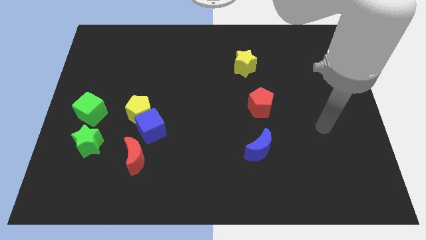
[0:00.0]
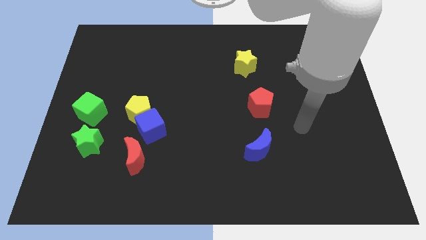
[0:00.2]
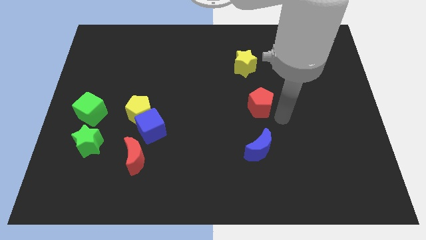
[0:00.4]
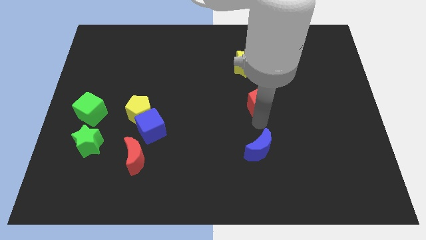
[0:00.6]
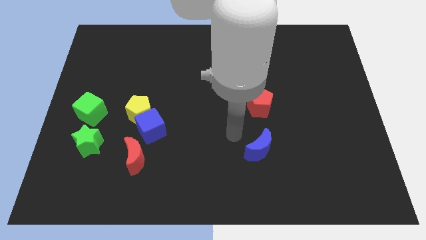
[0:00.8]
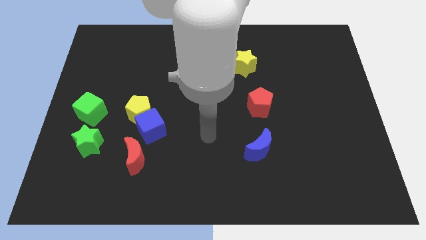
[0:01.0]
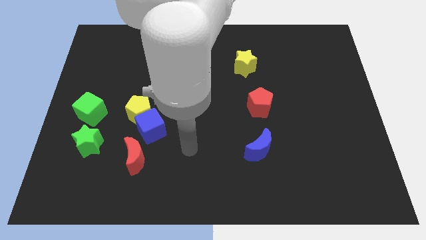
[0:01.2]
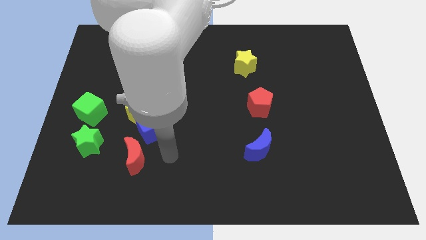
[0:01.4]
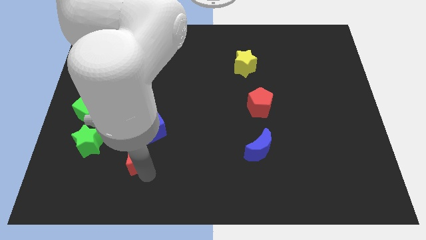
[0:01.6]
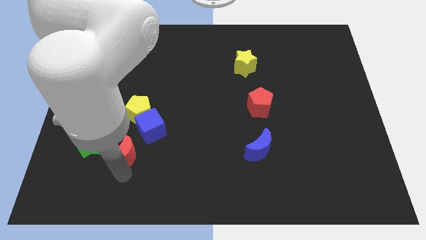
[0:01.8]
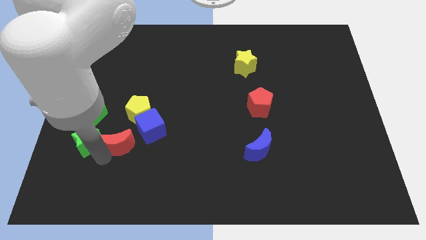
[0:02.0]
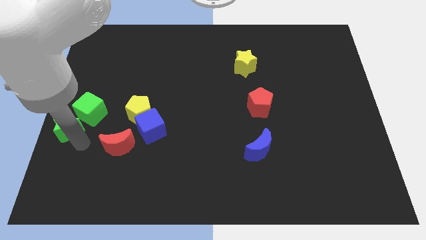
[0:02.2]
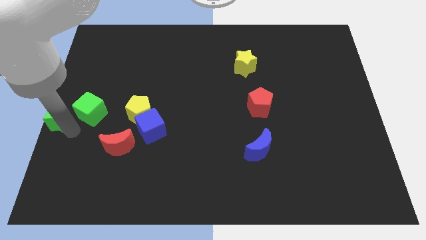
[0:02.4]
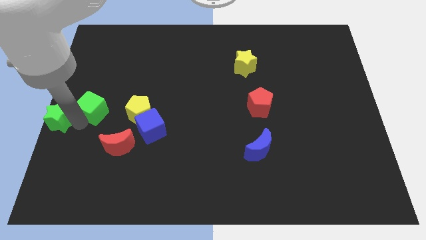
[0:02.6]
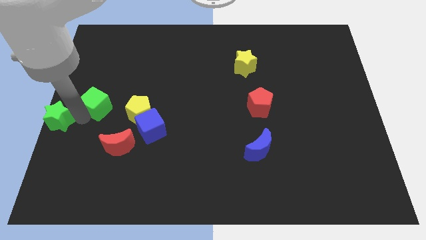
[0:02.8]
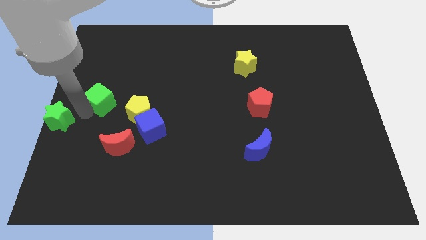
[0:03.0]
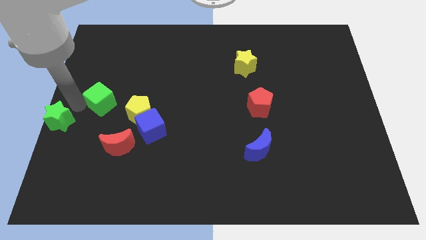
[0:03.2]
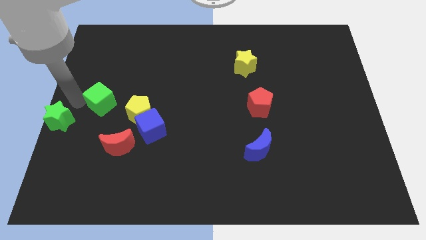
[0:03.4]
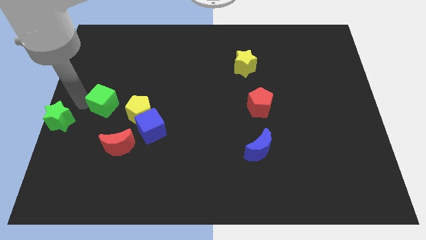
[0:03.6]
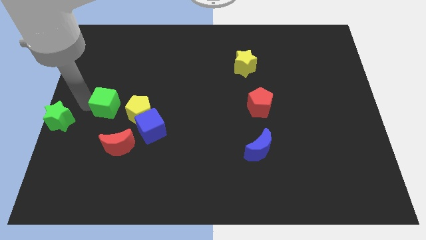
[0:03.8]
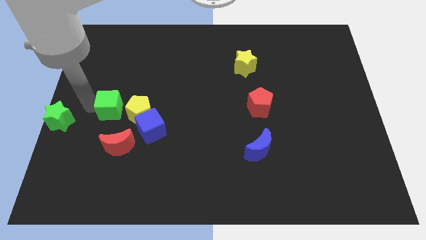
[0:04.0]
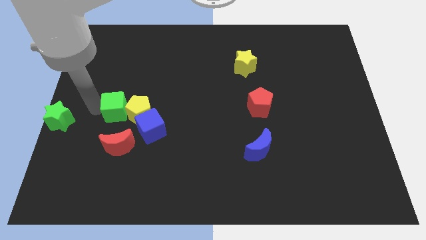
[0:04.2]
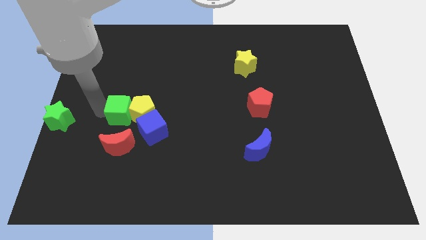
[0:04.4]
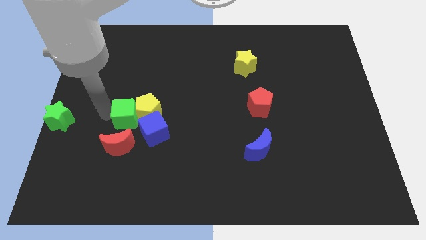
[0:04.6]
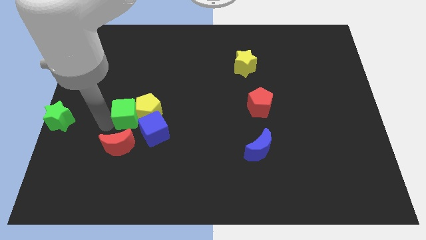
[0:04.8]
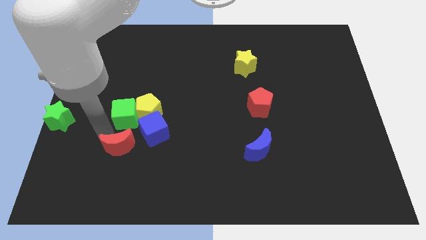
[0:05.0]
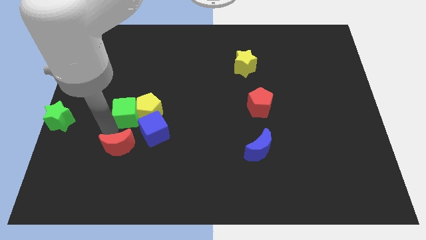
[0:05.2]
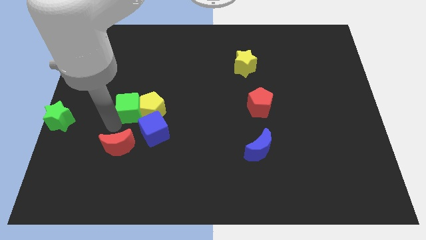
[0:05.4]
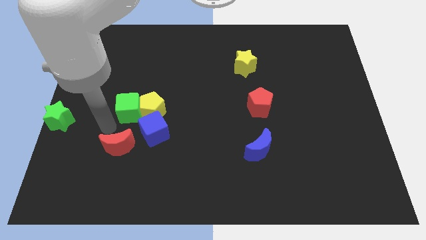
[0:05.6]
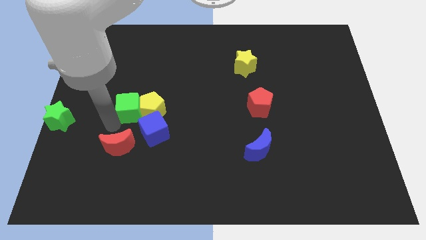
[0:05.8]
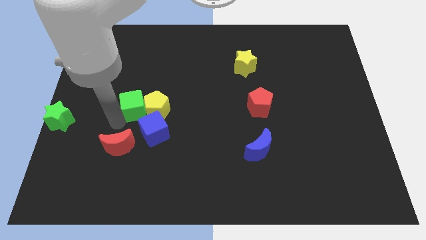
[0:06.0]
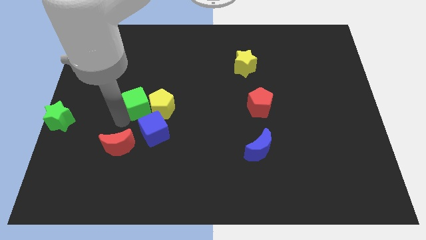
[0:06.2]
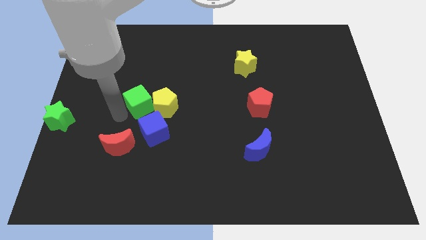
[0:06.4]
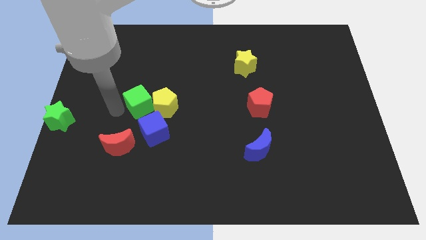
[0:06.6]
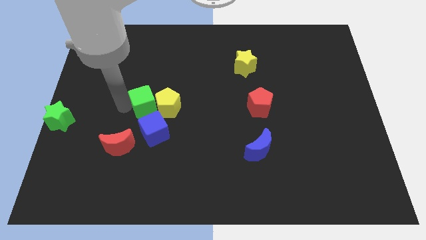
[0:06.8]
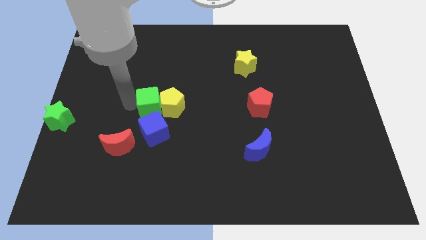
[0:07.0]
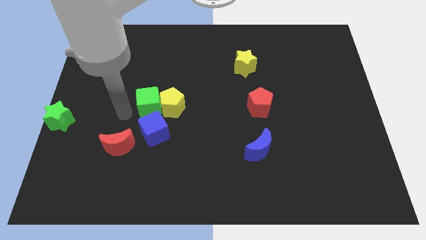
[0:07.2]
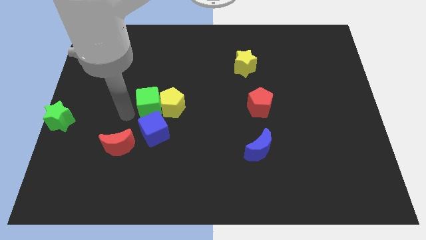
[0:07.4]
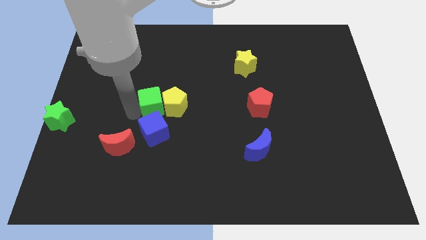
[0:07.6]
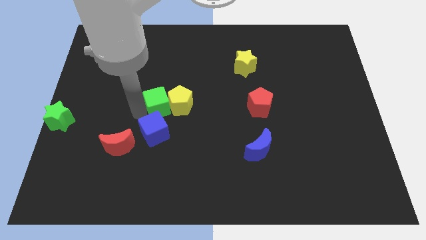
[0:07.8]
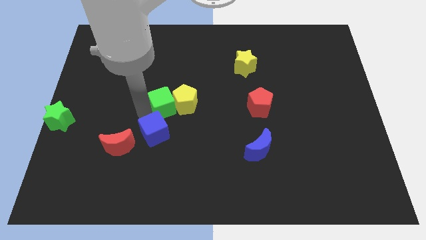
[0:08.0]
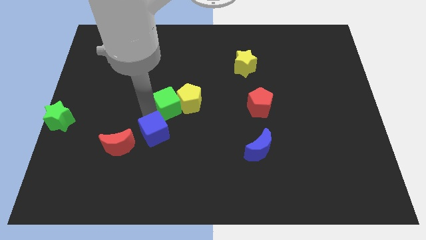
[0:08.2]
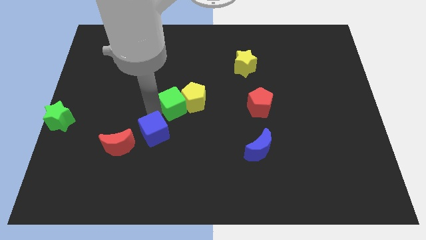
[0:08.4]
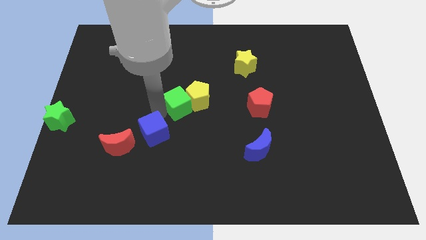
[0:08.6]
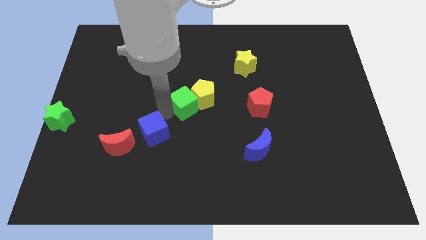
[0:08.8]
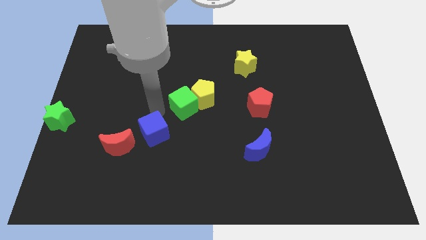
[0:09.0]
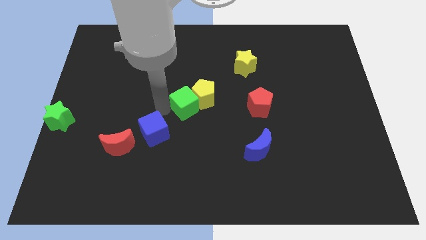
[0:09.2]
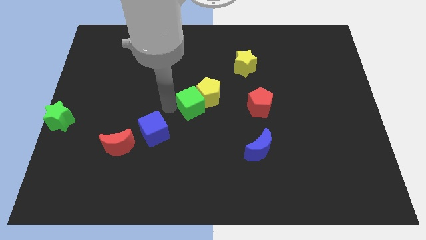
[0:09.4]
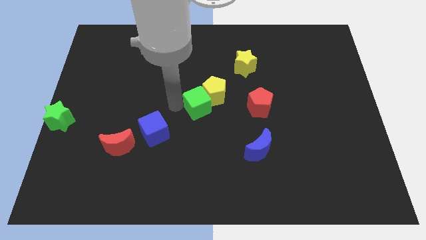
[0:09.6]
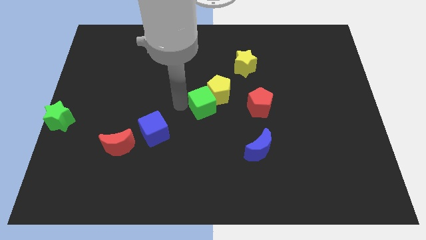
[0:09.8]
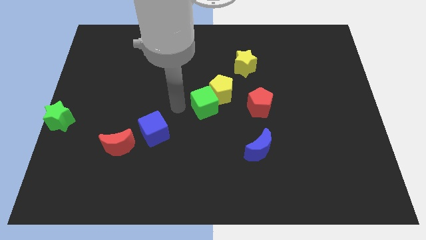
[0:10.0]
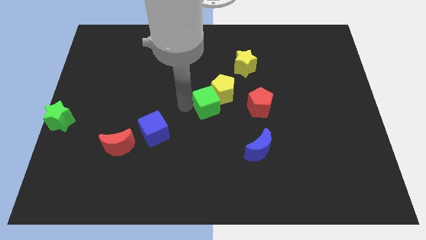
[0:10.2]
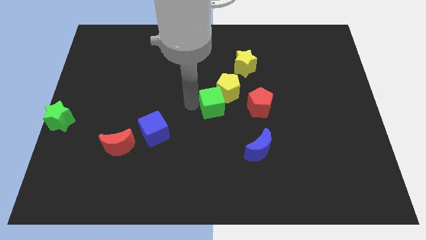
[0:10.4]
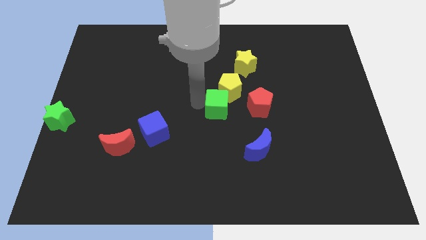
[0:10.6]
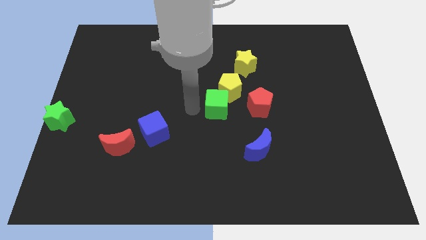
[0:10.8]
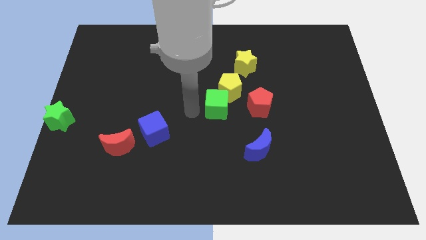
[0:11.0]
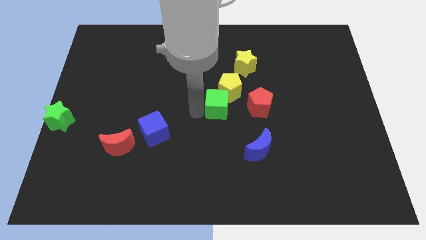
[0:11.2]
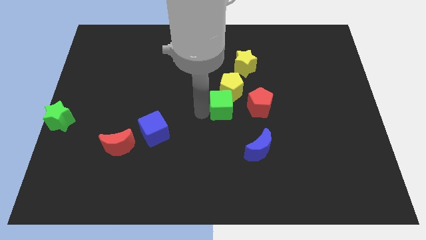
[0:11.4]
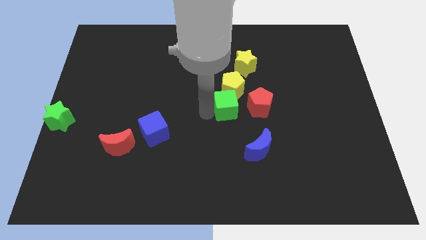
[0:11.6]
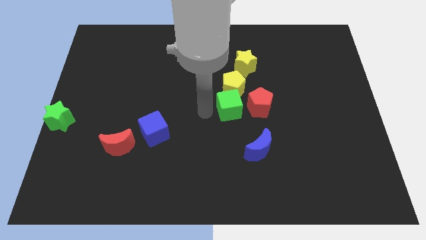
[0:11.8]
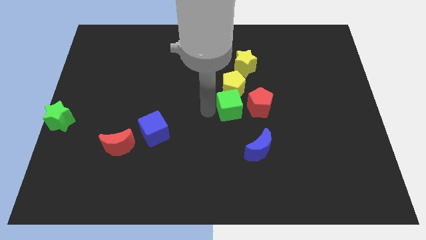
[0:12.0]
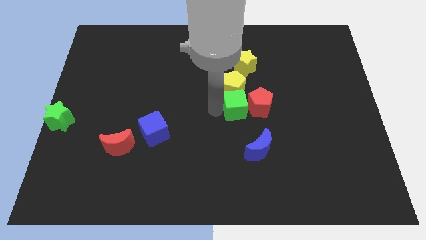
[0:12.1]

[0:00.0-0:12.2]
move the green cube towards the red pentagon

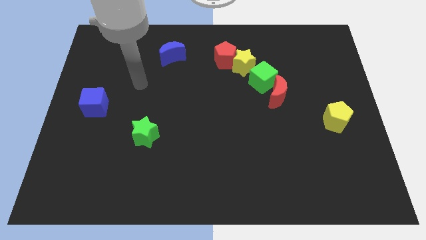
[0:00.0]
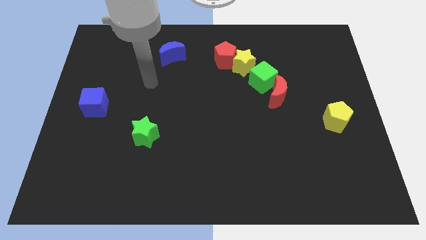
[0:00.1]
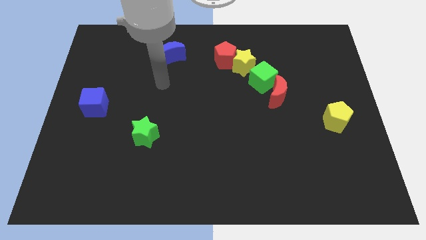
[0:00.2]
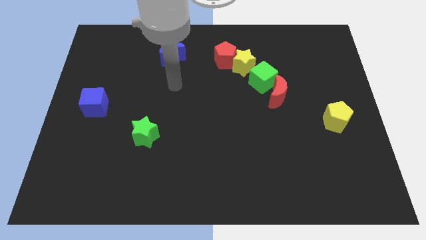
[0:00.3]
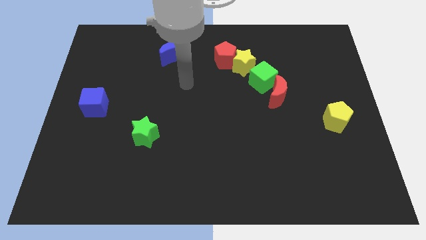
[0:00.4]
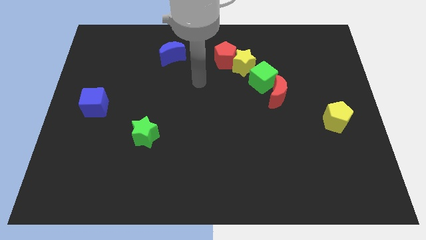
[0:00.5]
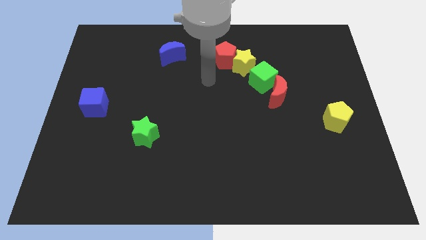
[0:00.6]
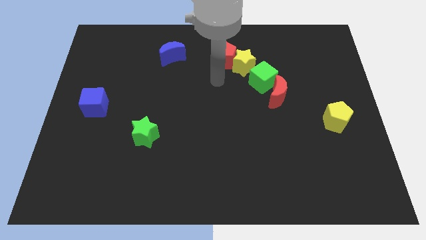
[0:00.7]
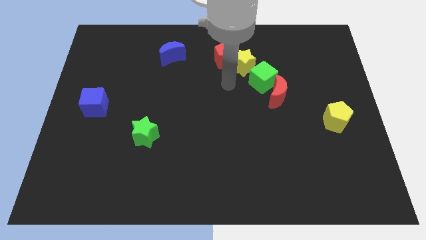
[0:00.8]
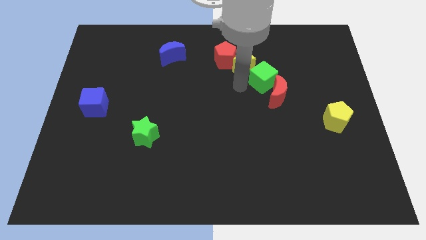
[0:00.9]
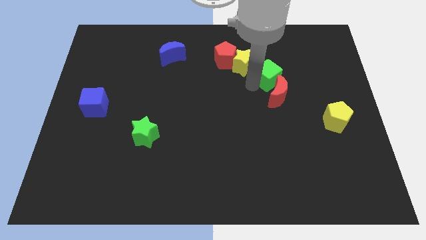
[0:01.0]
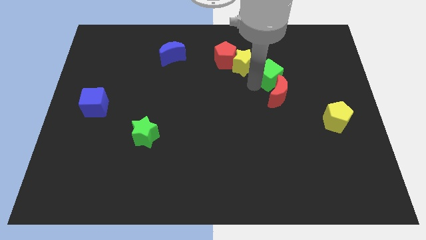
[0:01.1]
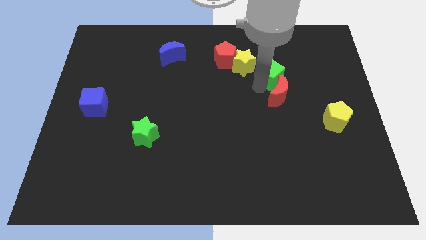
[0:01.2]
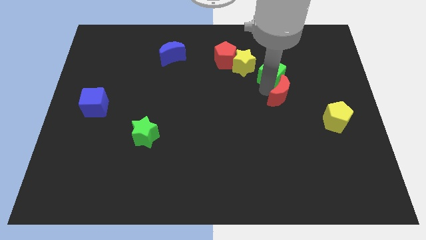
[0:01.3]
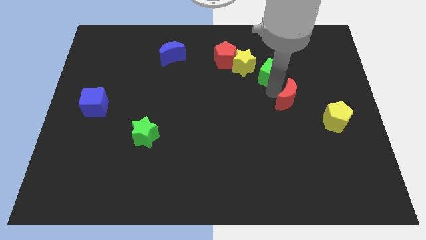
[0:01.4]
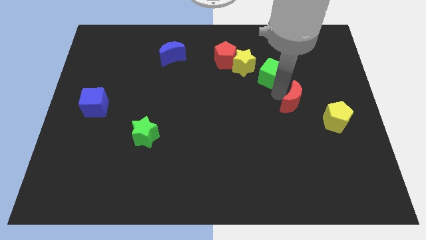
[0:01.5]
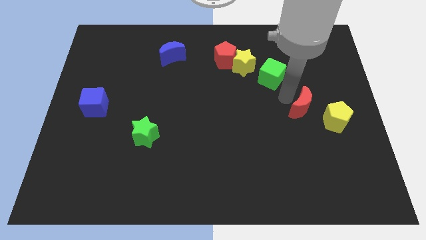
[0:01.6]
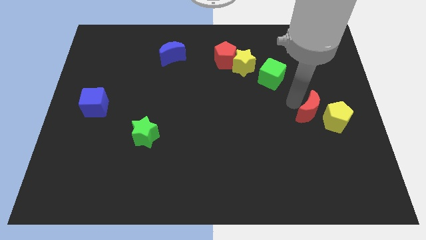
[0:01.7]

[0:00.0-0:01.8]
slide the red moon close to the yellow pentagon
